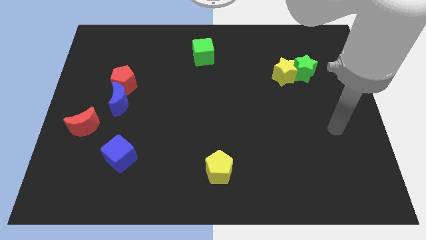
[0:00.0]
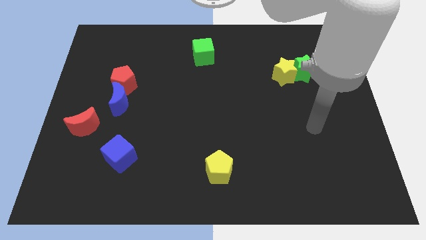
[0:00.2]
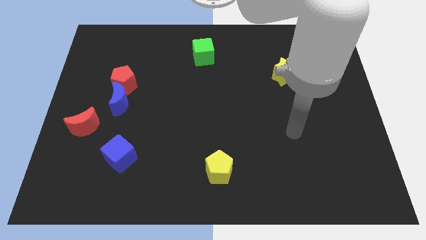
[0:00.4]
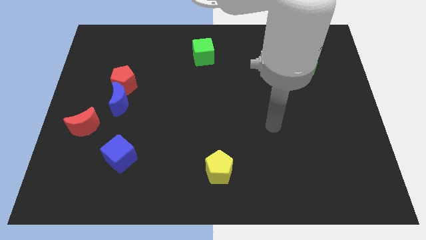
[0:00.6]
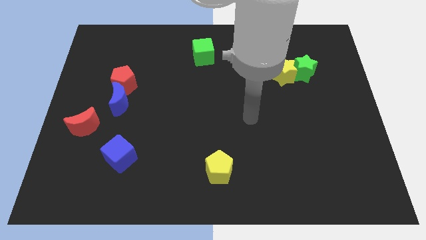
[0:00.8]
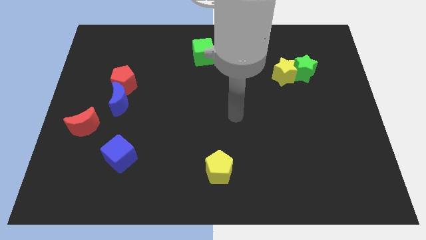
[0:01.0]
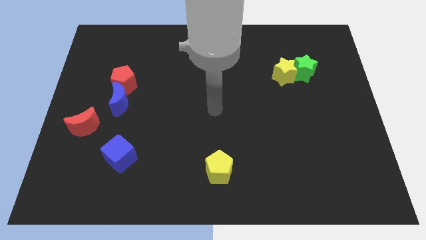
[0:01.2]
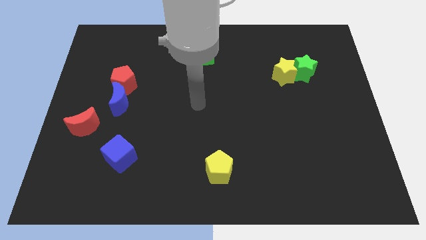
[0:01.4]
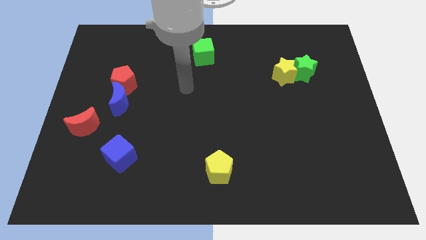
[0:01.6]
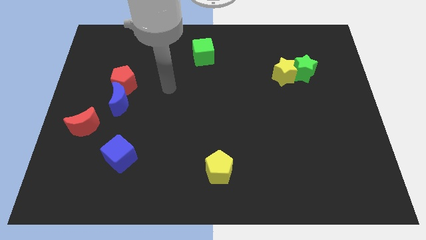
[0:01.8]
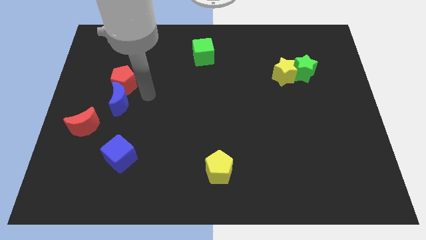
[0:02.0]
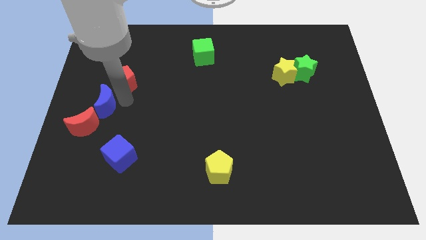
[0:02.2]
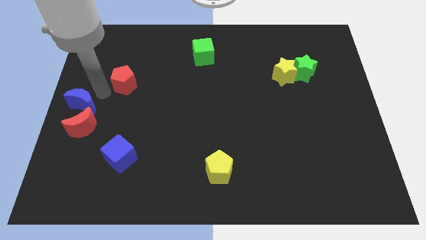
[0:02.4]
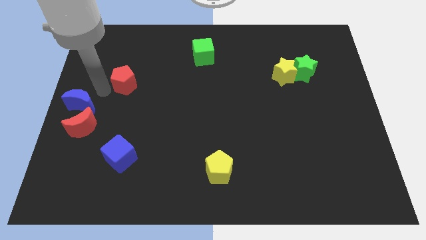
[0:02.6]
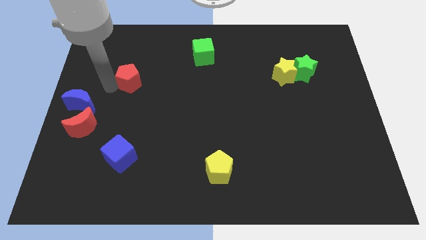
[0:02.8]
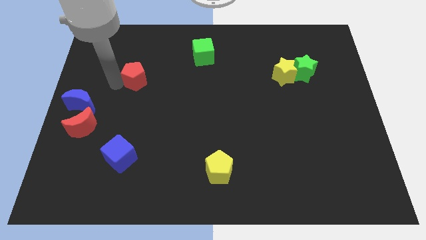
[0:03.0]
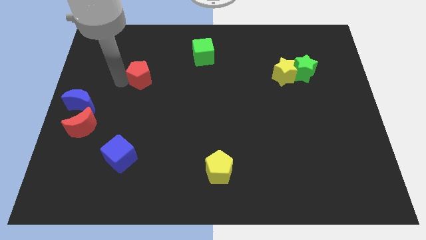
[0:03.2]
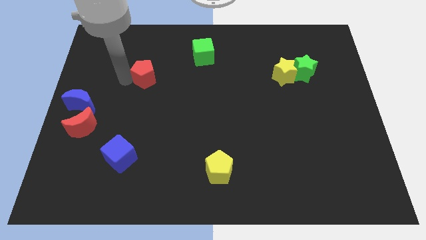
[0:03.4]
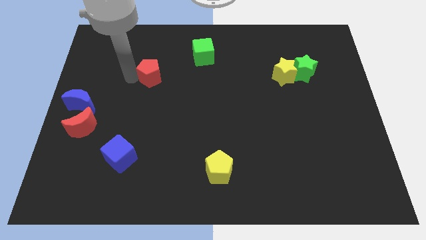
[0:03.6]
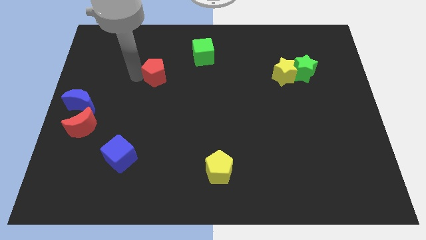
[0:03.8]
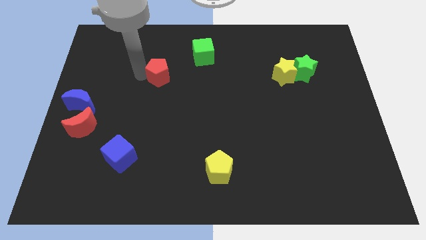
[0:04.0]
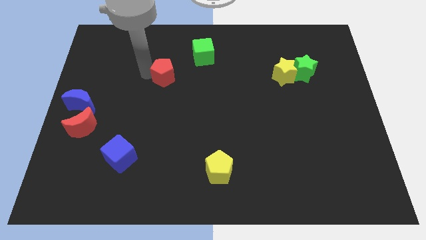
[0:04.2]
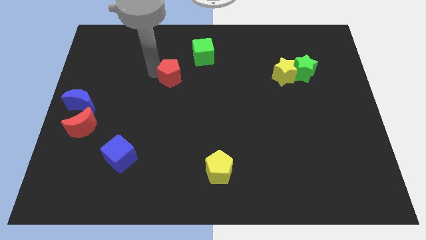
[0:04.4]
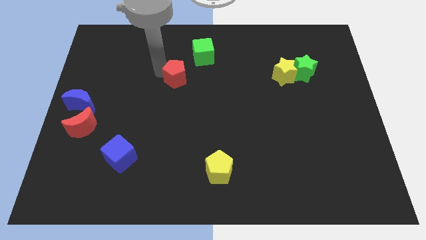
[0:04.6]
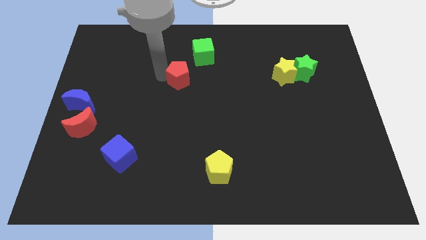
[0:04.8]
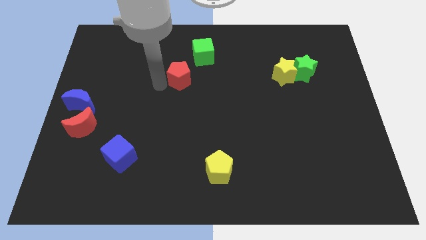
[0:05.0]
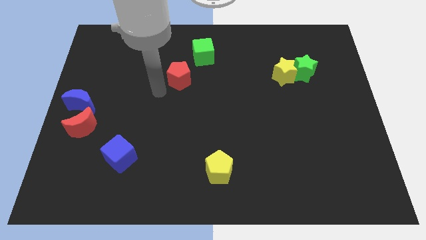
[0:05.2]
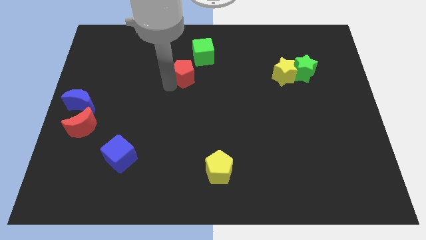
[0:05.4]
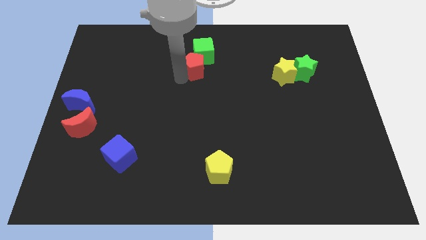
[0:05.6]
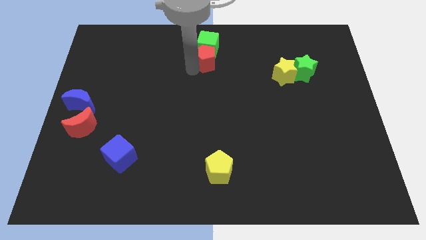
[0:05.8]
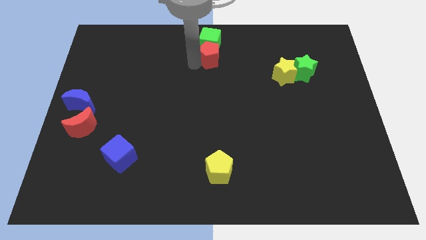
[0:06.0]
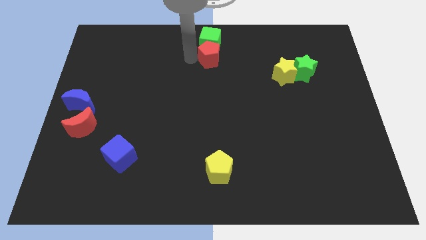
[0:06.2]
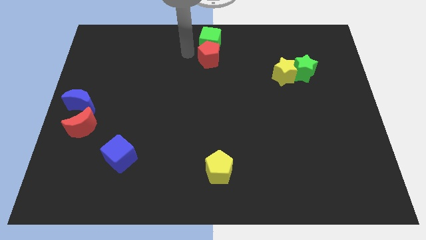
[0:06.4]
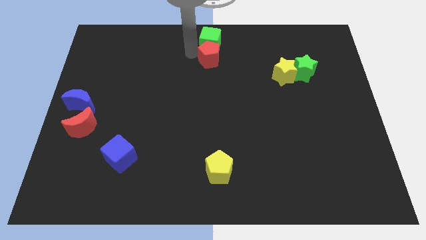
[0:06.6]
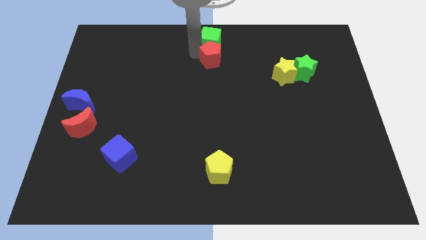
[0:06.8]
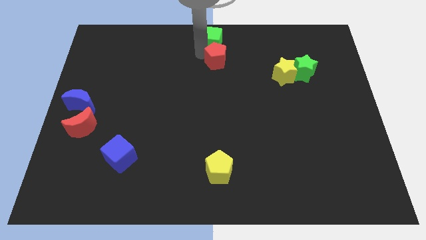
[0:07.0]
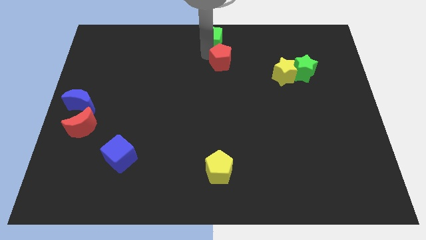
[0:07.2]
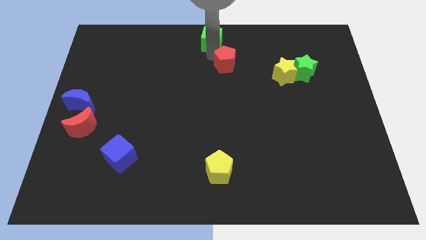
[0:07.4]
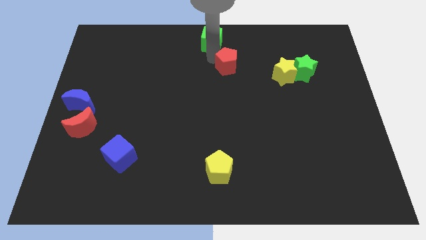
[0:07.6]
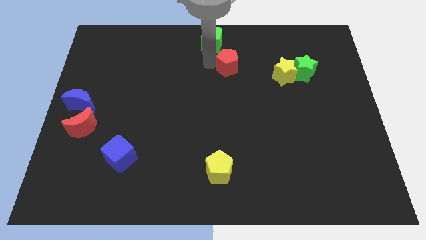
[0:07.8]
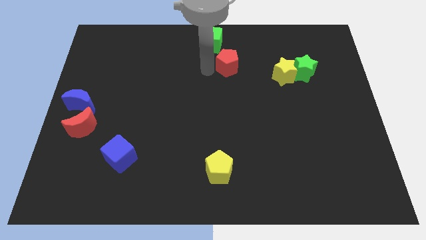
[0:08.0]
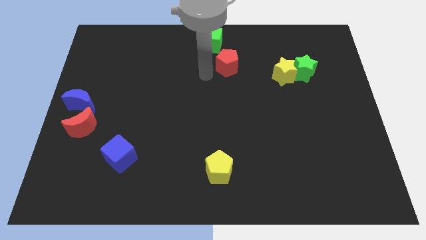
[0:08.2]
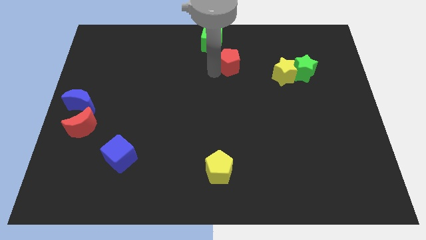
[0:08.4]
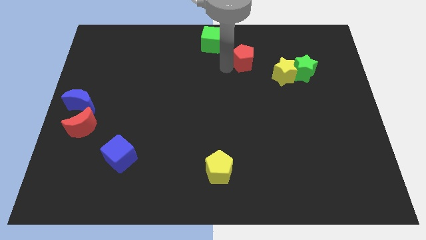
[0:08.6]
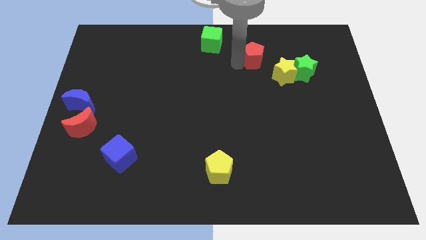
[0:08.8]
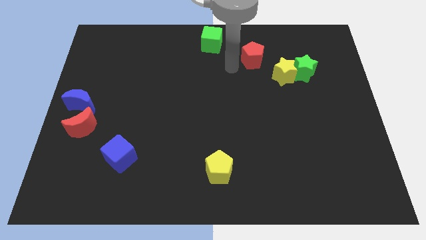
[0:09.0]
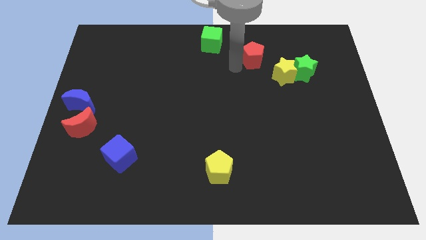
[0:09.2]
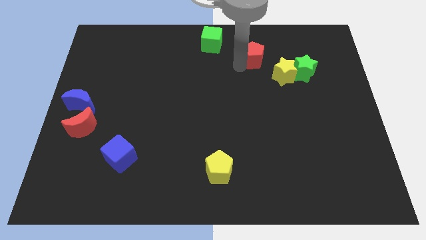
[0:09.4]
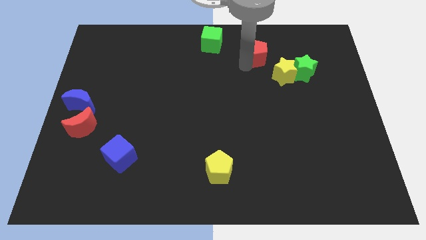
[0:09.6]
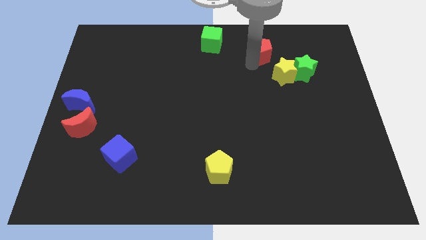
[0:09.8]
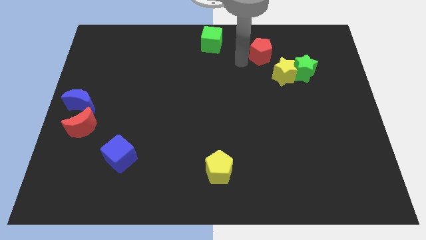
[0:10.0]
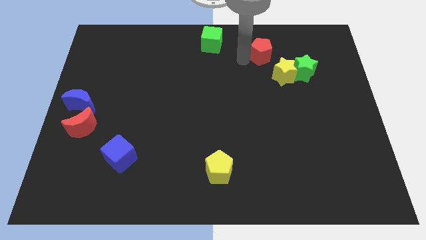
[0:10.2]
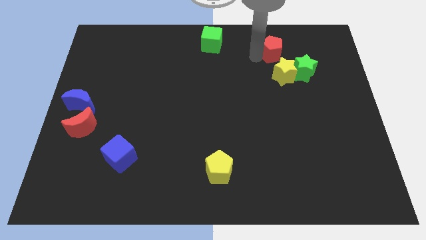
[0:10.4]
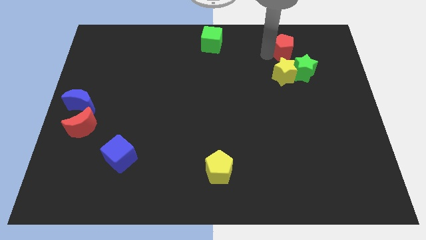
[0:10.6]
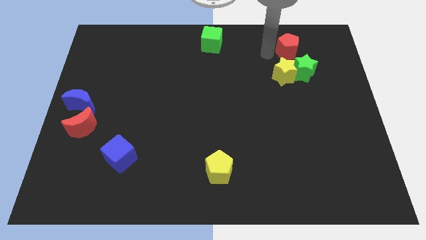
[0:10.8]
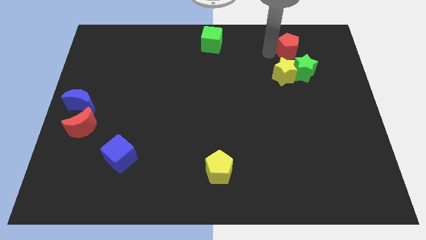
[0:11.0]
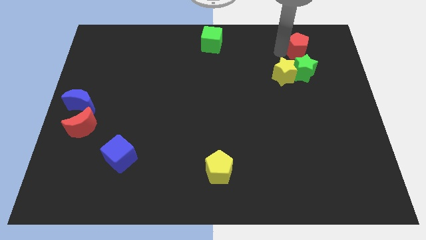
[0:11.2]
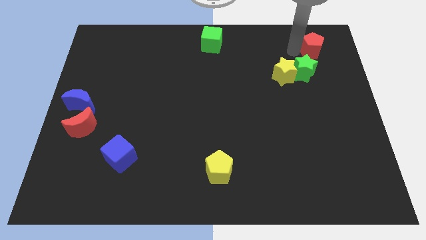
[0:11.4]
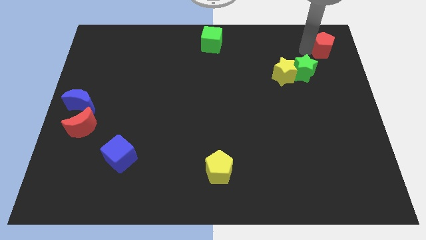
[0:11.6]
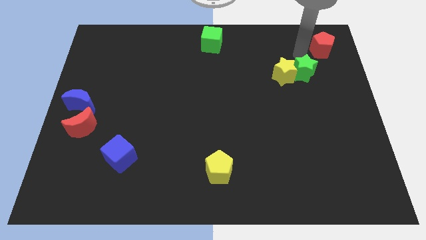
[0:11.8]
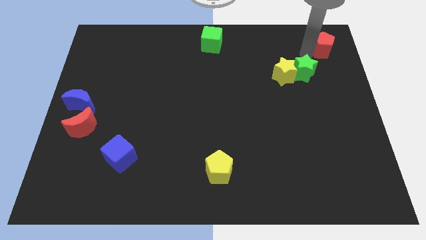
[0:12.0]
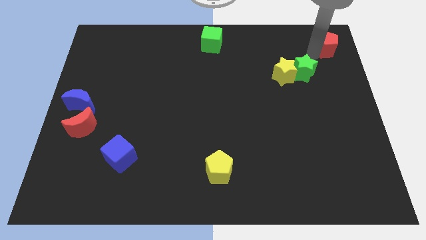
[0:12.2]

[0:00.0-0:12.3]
move the red pentagon to the top right of the board
